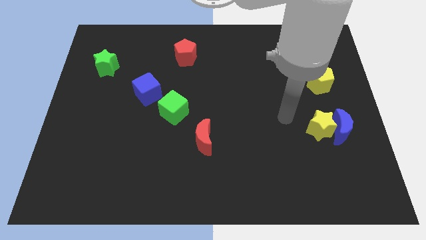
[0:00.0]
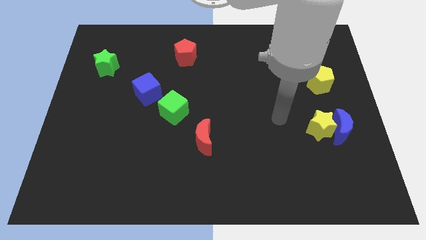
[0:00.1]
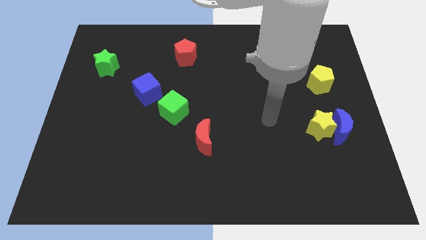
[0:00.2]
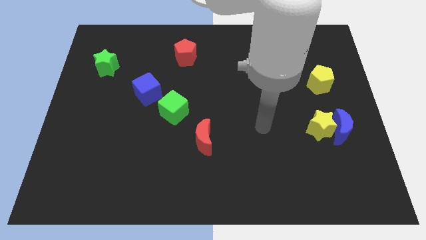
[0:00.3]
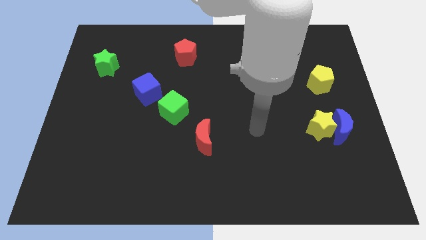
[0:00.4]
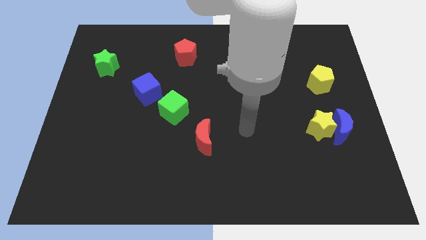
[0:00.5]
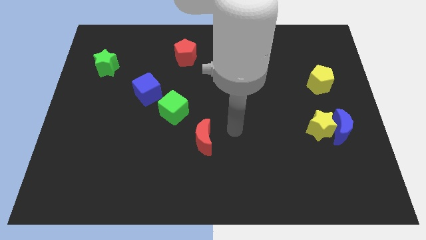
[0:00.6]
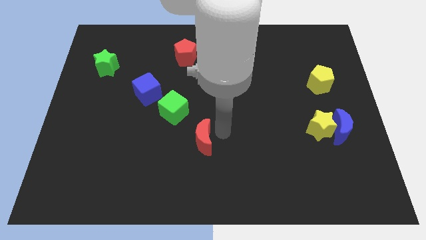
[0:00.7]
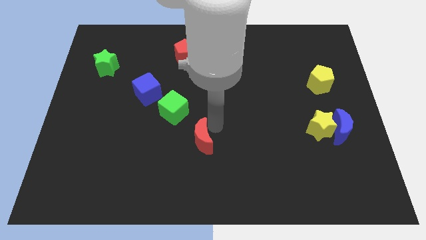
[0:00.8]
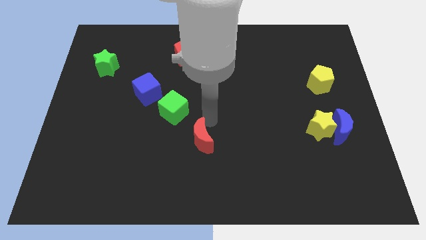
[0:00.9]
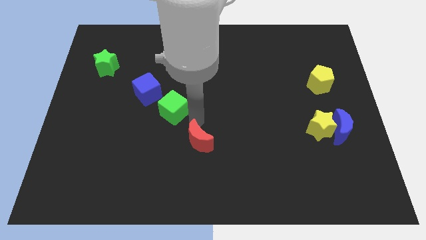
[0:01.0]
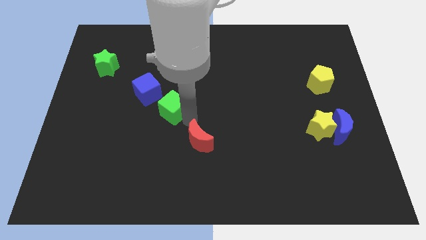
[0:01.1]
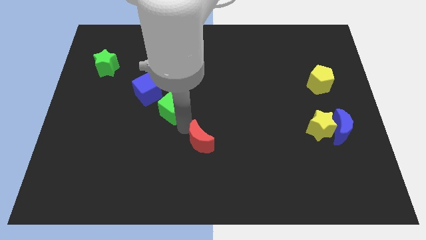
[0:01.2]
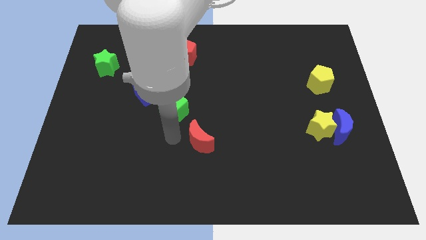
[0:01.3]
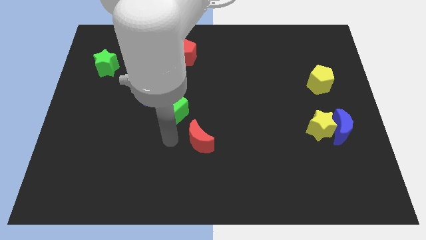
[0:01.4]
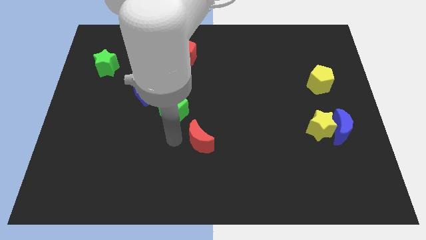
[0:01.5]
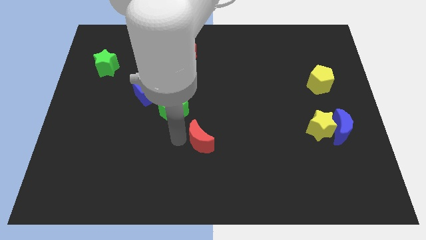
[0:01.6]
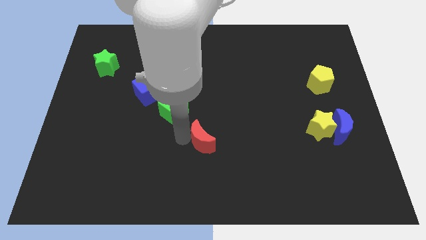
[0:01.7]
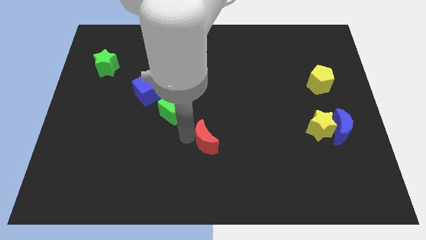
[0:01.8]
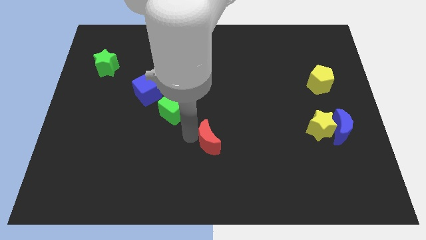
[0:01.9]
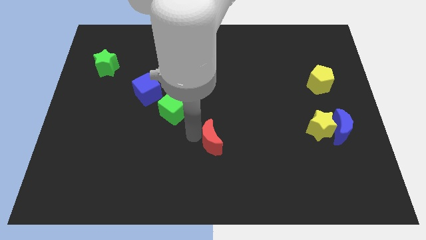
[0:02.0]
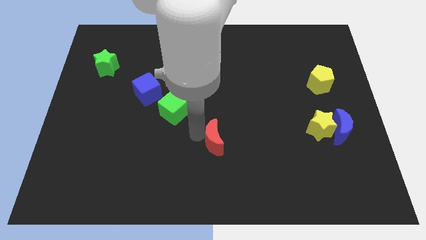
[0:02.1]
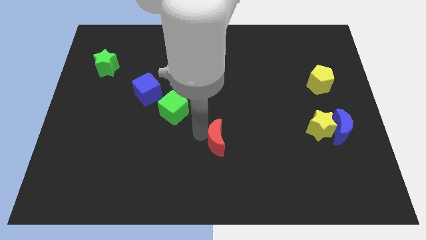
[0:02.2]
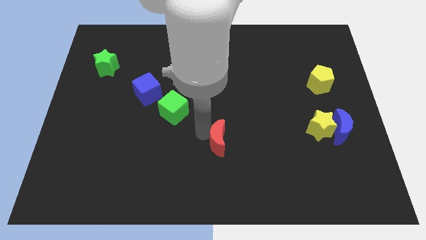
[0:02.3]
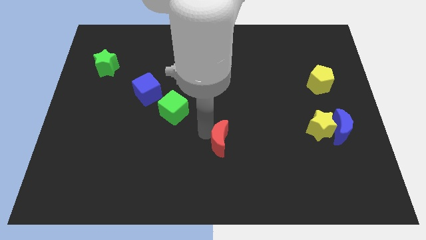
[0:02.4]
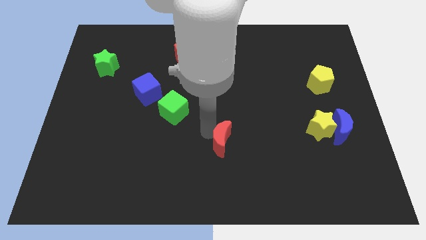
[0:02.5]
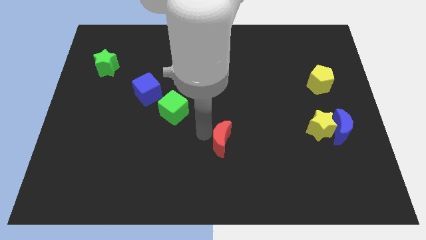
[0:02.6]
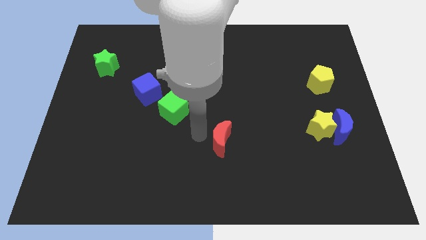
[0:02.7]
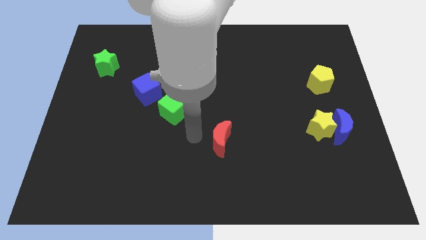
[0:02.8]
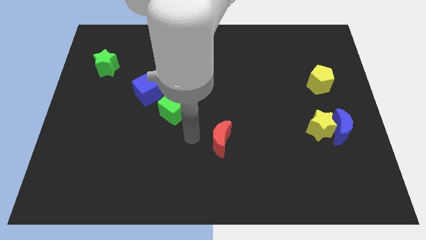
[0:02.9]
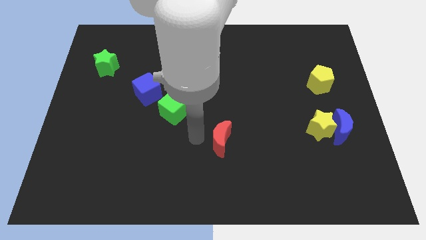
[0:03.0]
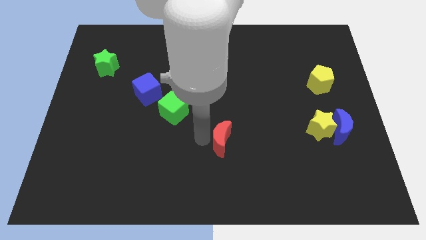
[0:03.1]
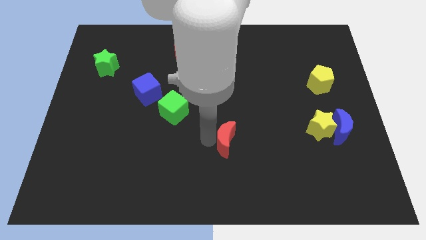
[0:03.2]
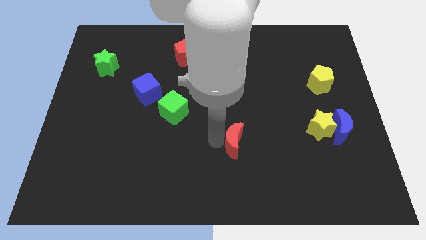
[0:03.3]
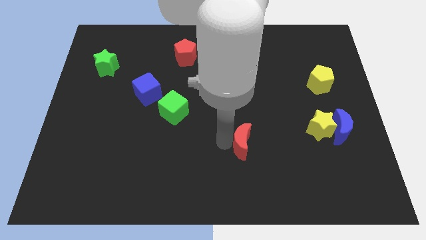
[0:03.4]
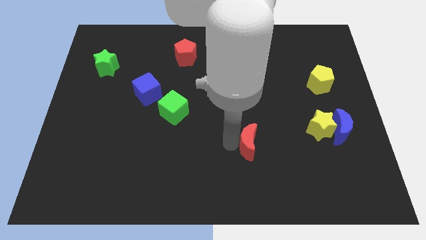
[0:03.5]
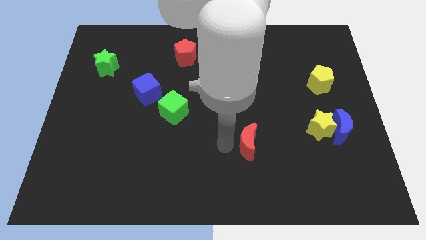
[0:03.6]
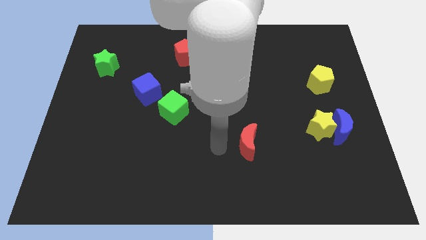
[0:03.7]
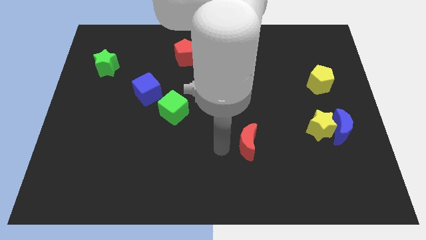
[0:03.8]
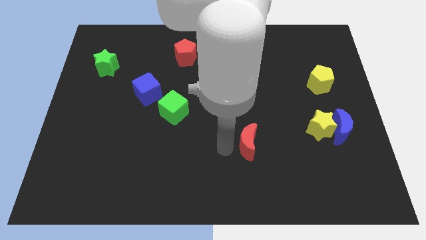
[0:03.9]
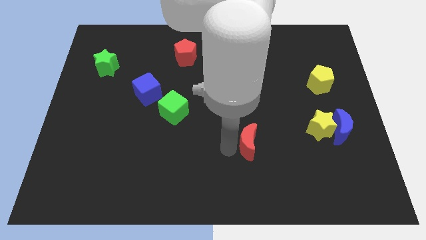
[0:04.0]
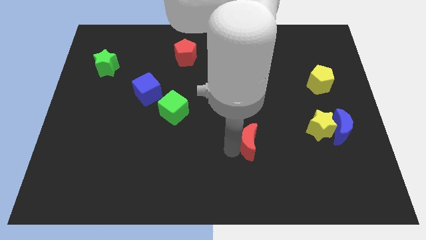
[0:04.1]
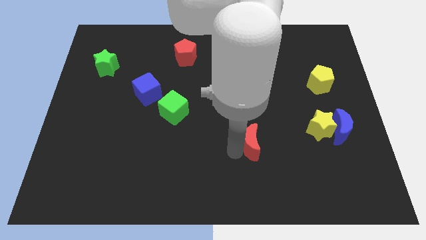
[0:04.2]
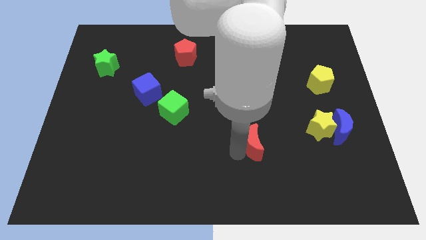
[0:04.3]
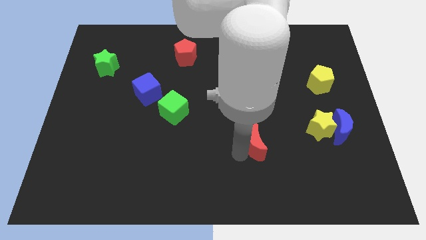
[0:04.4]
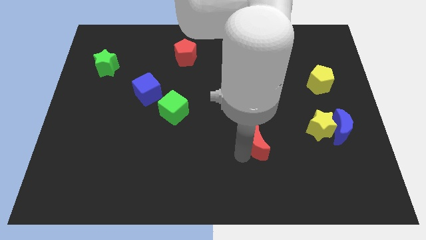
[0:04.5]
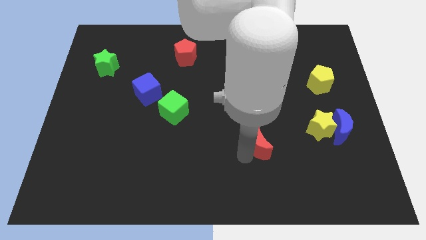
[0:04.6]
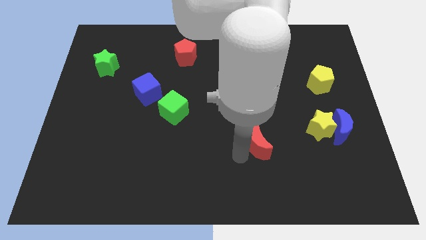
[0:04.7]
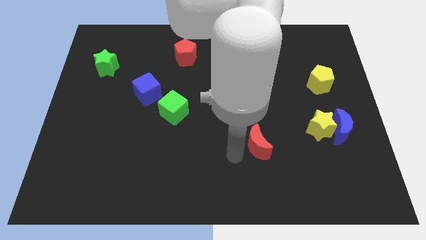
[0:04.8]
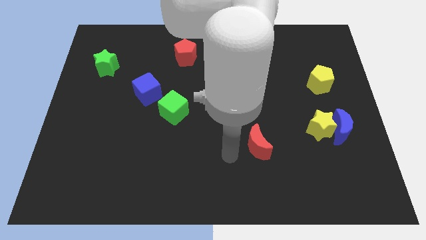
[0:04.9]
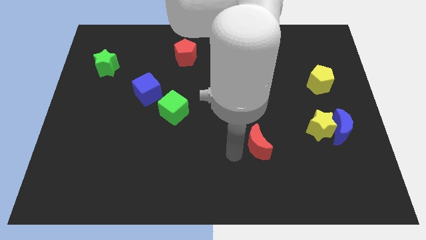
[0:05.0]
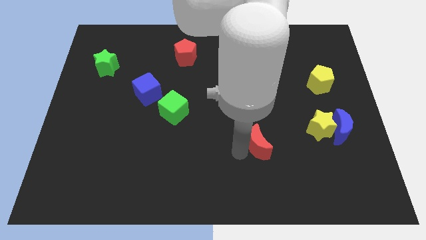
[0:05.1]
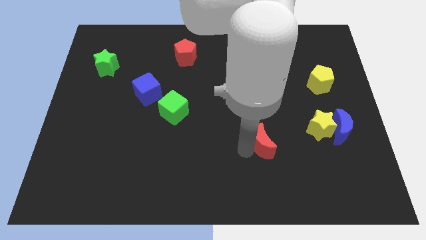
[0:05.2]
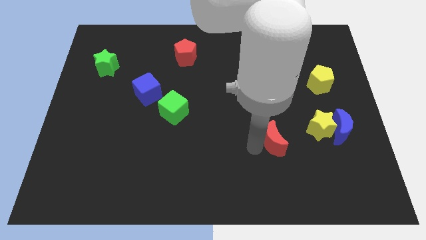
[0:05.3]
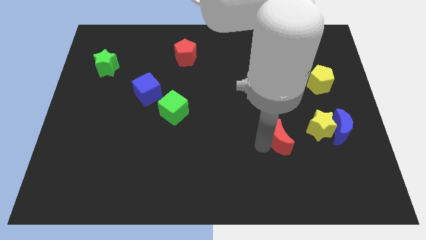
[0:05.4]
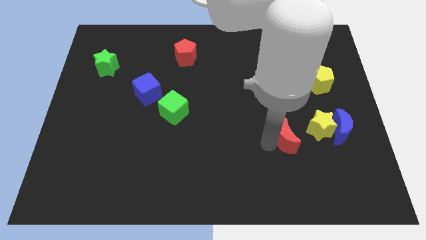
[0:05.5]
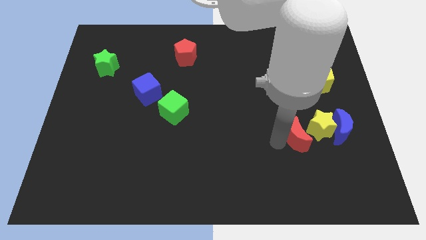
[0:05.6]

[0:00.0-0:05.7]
put the red moon towards the yellow star

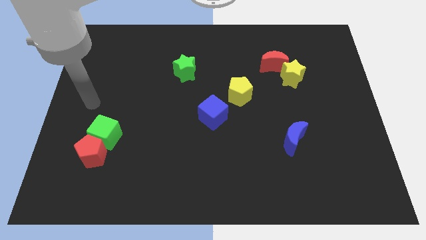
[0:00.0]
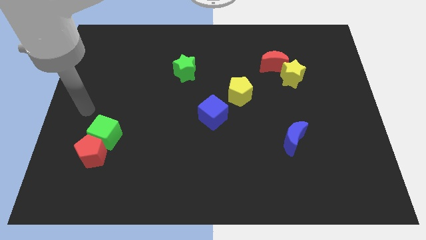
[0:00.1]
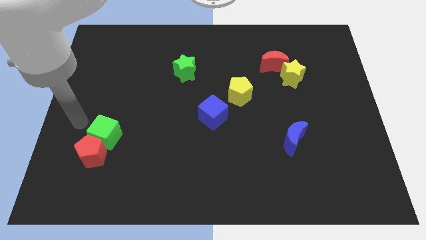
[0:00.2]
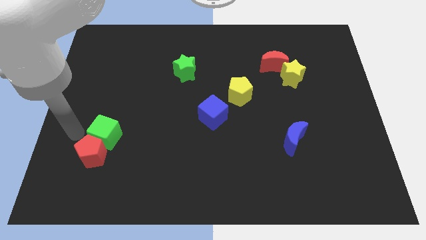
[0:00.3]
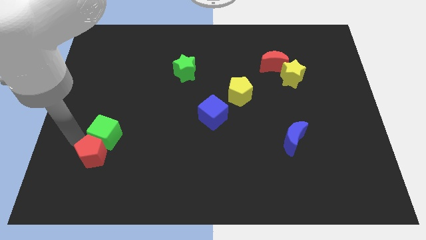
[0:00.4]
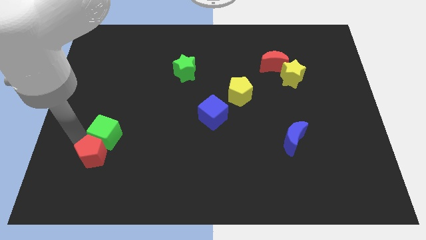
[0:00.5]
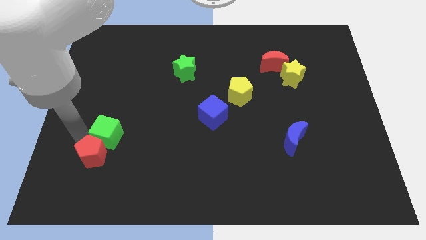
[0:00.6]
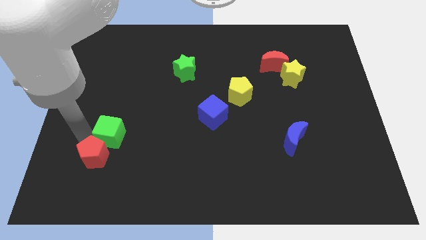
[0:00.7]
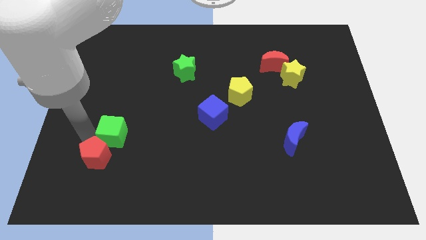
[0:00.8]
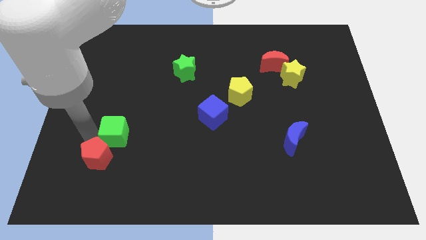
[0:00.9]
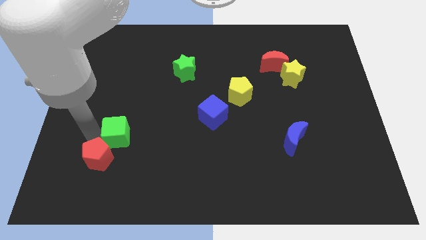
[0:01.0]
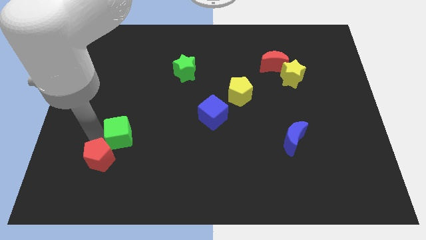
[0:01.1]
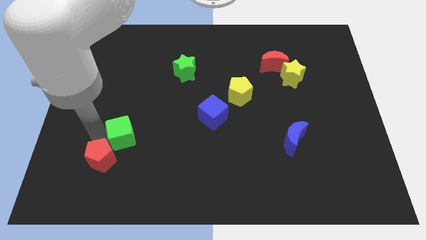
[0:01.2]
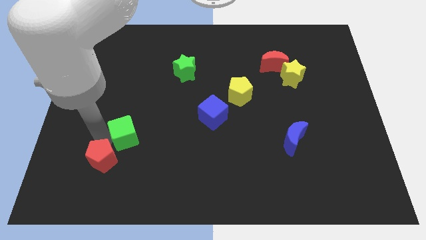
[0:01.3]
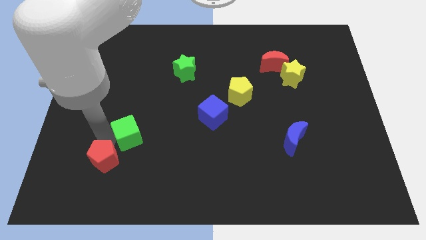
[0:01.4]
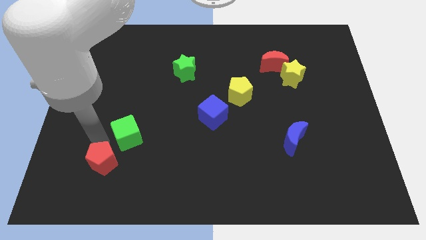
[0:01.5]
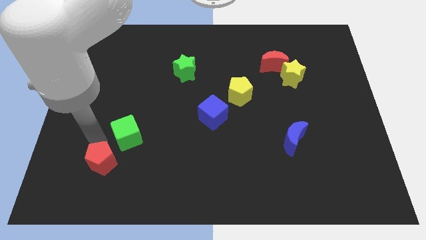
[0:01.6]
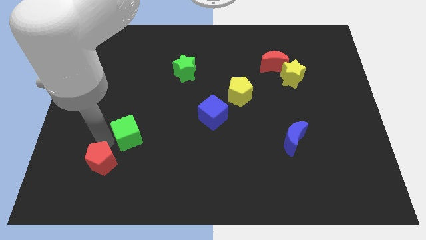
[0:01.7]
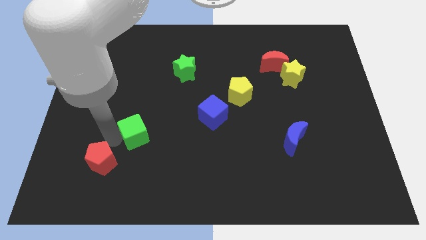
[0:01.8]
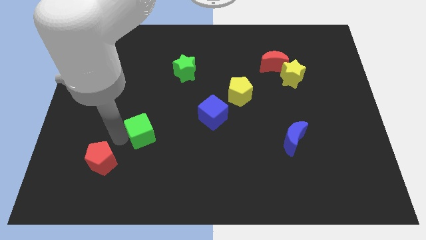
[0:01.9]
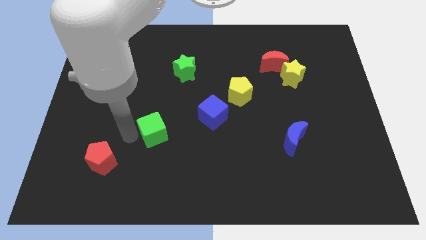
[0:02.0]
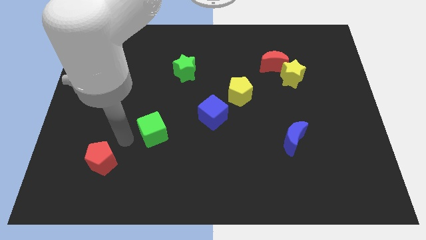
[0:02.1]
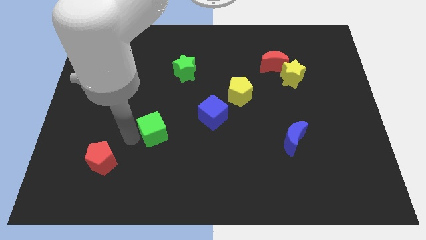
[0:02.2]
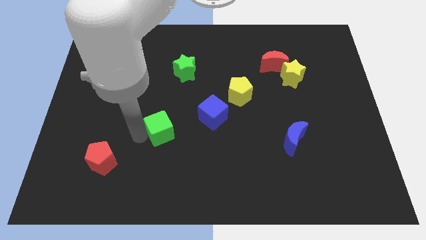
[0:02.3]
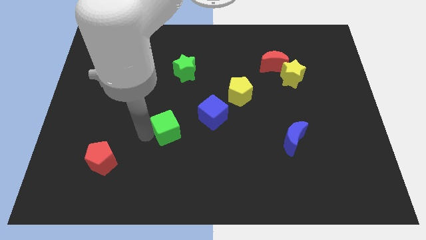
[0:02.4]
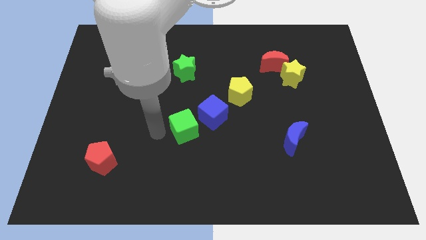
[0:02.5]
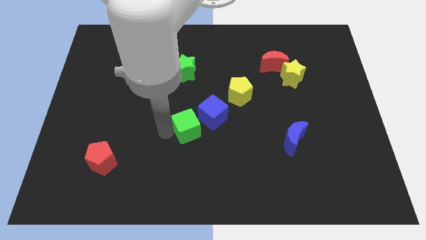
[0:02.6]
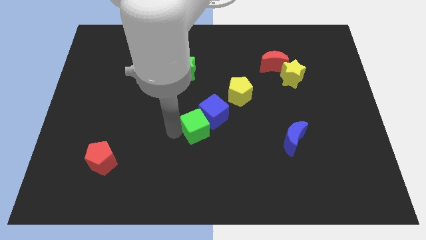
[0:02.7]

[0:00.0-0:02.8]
move the green cube next to the blue cube
